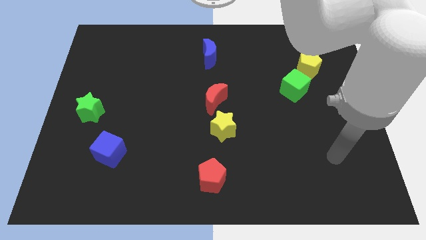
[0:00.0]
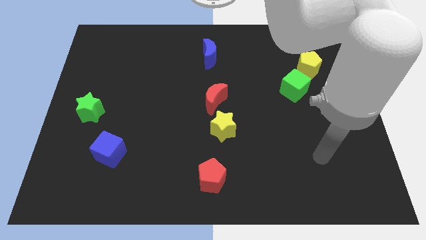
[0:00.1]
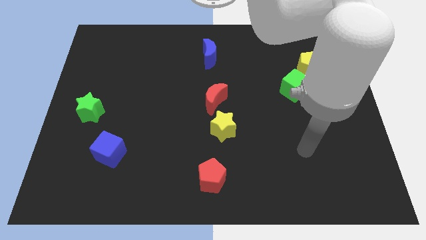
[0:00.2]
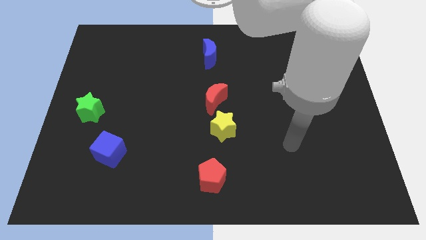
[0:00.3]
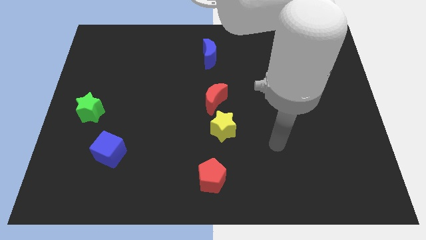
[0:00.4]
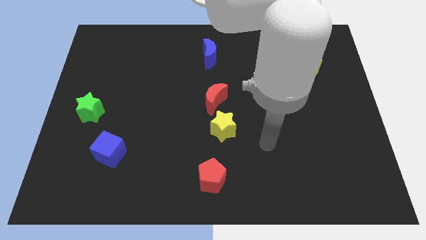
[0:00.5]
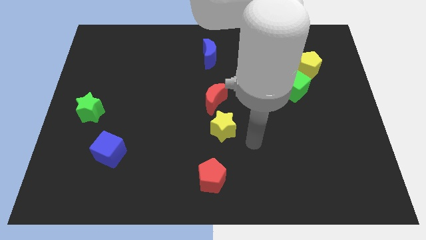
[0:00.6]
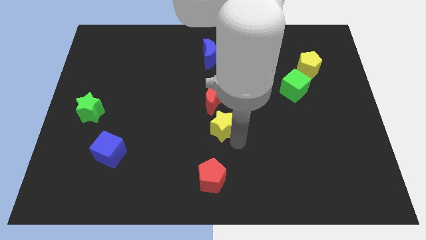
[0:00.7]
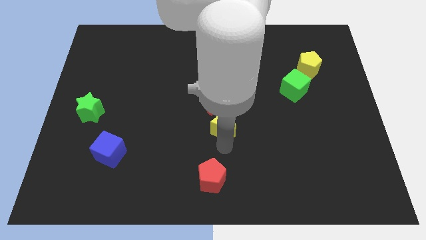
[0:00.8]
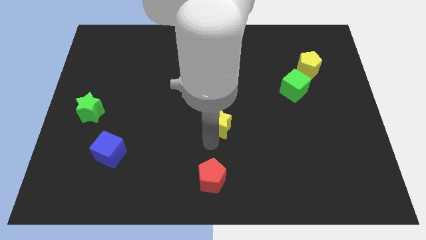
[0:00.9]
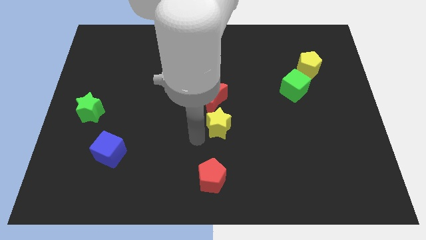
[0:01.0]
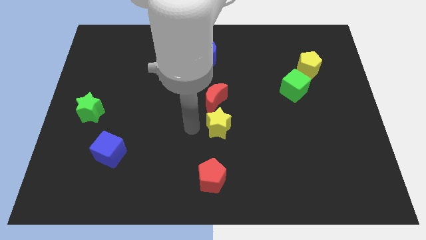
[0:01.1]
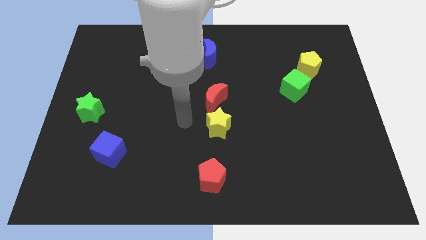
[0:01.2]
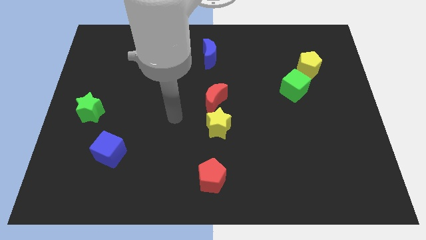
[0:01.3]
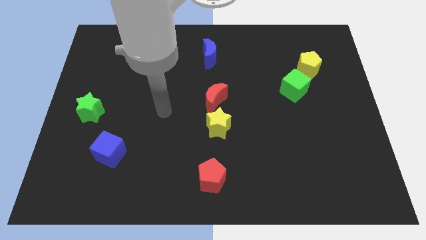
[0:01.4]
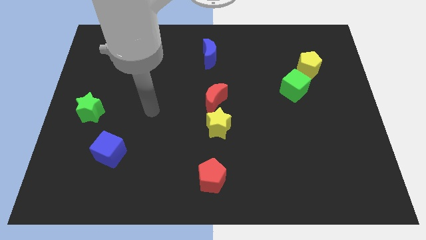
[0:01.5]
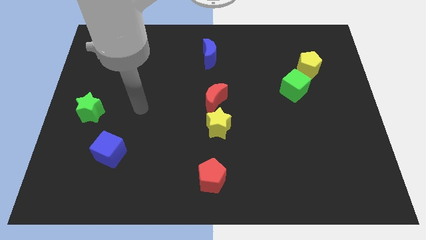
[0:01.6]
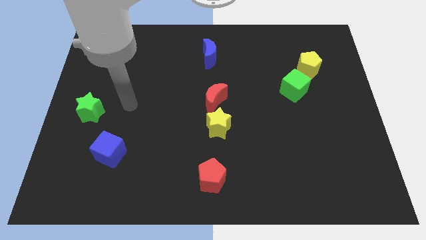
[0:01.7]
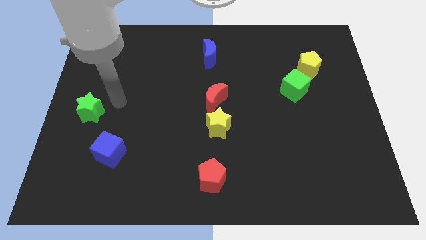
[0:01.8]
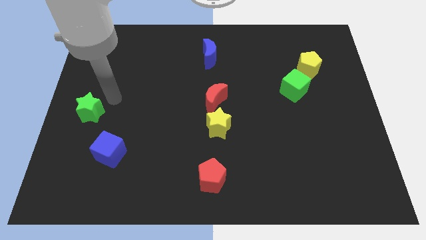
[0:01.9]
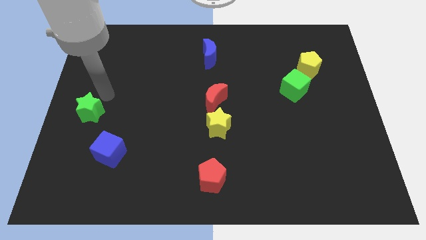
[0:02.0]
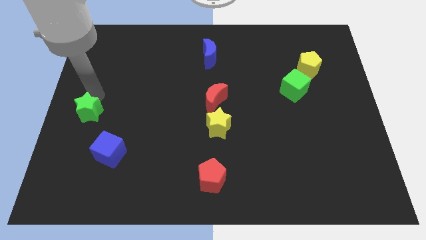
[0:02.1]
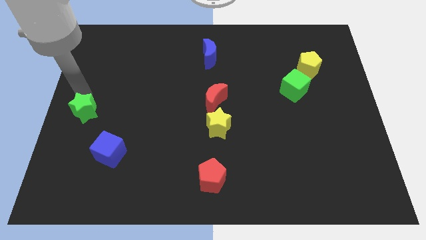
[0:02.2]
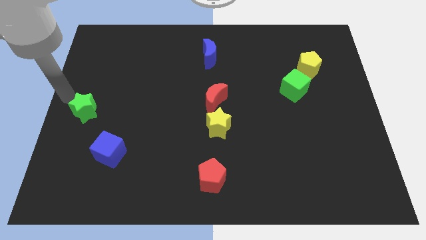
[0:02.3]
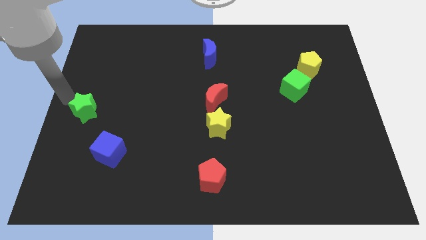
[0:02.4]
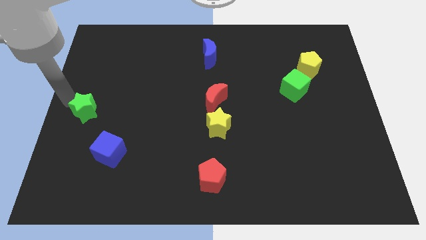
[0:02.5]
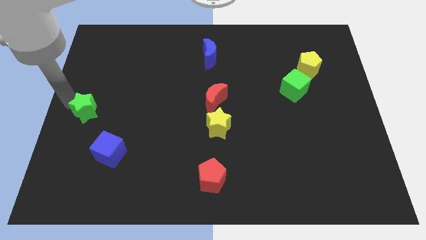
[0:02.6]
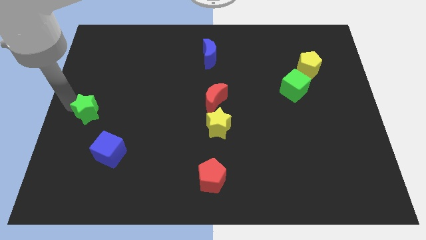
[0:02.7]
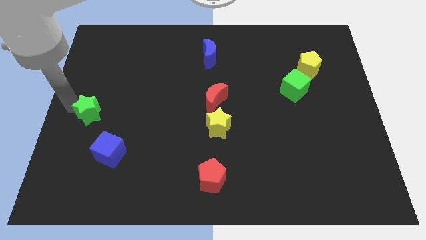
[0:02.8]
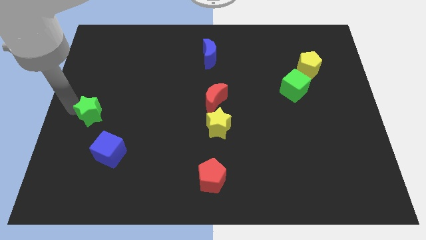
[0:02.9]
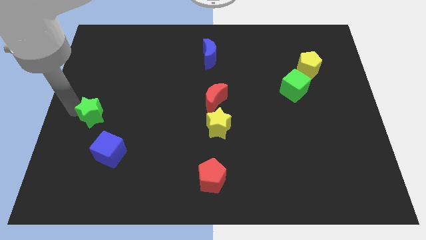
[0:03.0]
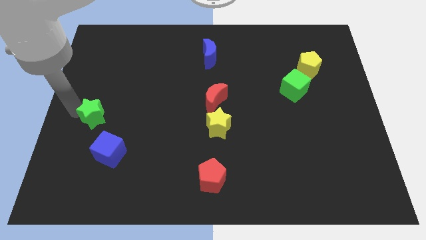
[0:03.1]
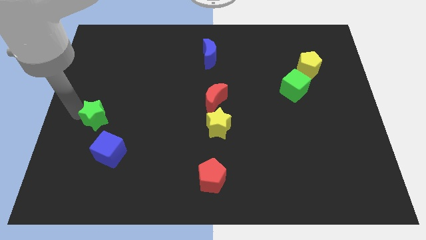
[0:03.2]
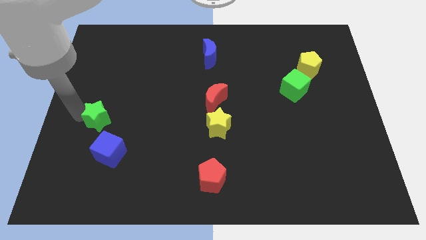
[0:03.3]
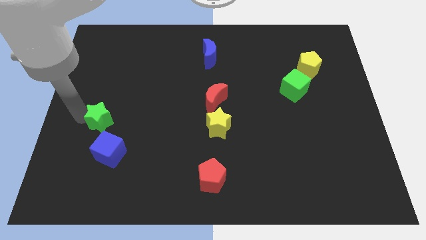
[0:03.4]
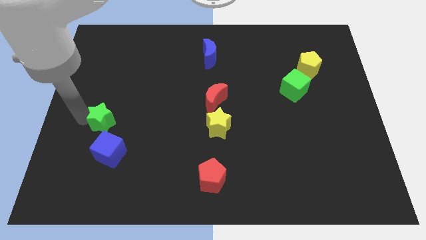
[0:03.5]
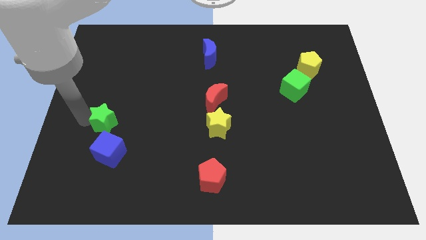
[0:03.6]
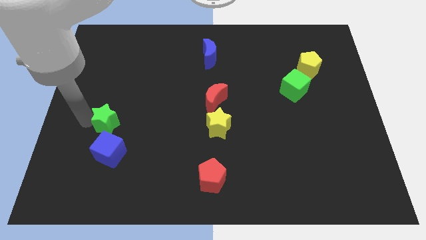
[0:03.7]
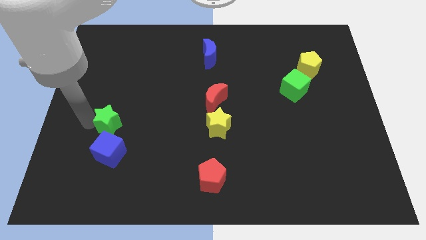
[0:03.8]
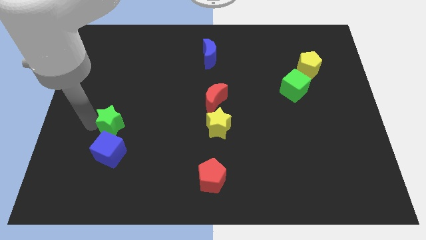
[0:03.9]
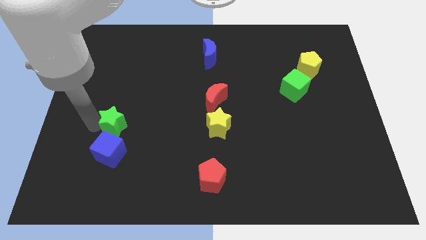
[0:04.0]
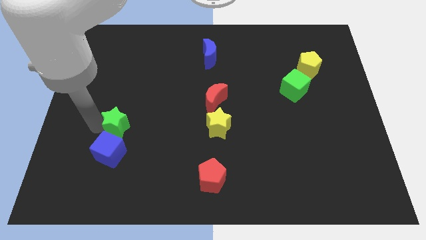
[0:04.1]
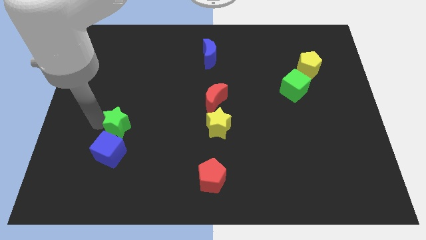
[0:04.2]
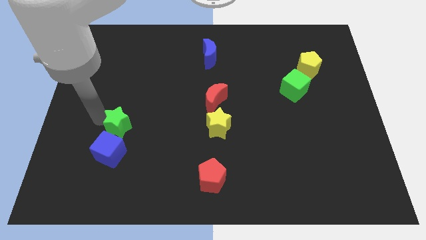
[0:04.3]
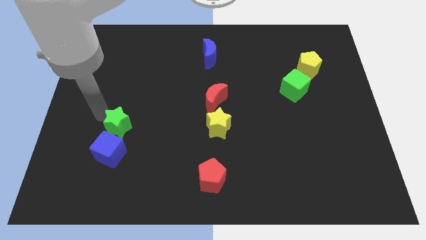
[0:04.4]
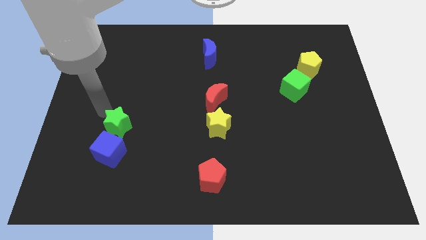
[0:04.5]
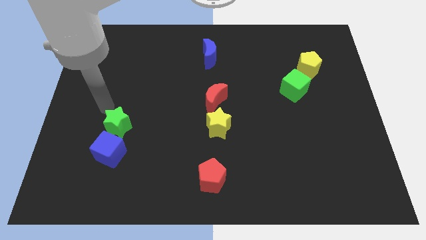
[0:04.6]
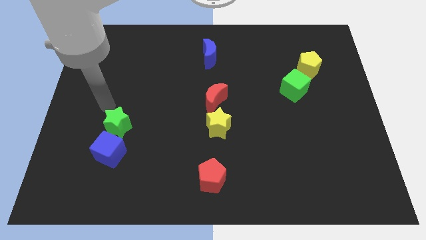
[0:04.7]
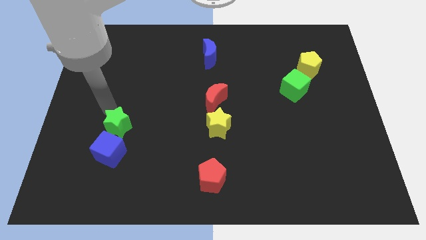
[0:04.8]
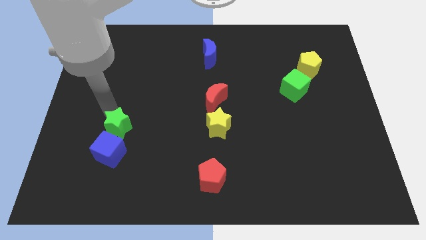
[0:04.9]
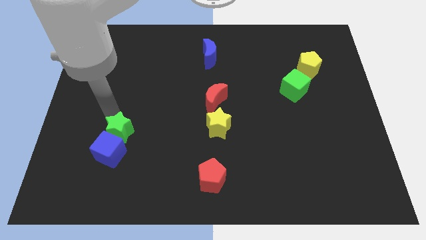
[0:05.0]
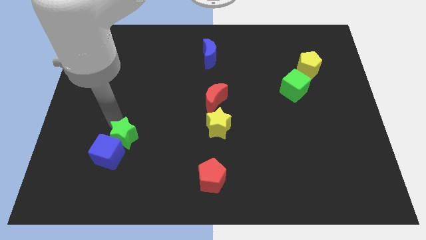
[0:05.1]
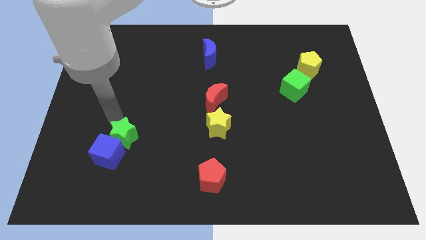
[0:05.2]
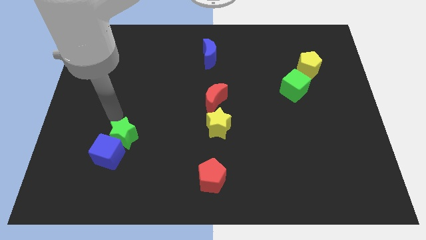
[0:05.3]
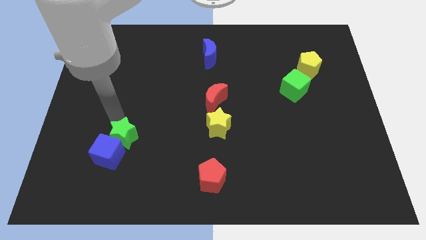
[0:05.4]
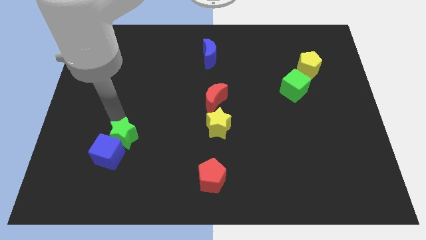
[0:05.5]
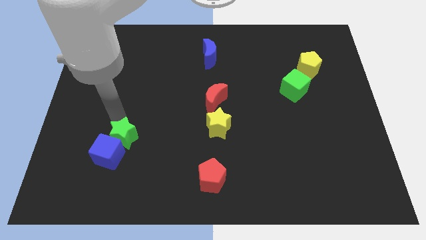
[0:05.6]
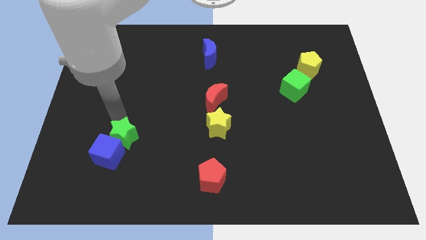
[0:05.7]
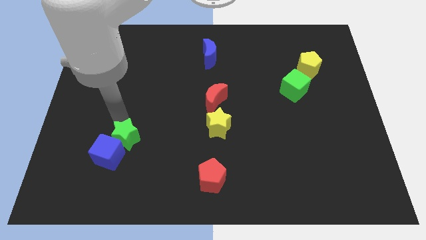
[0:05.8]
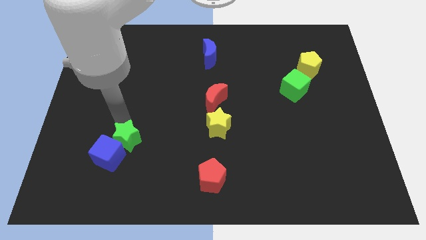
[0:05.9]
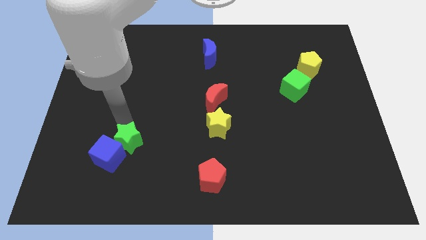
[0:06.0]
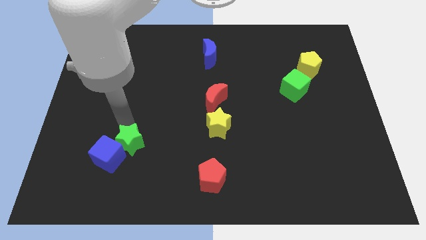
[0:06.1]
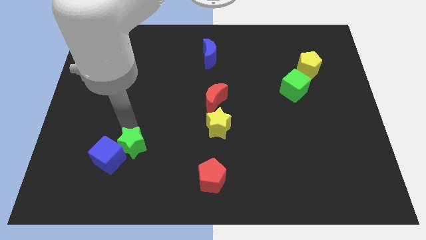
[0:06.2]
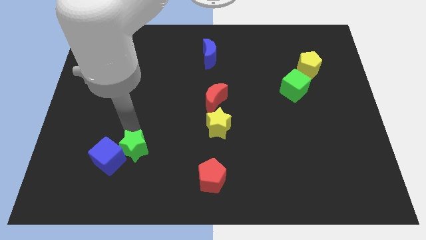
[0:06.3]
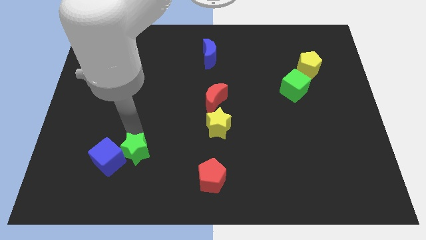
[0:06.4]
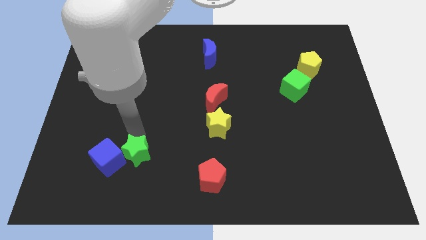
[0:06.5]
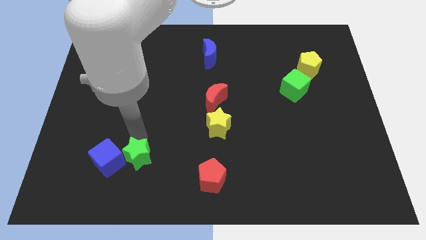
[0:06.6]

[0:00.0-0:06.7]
slide the green star to the bottom right side of the blue cube
